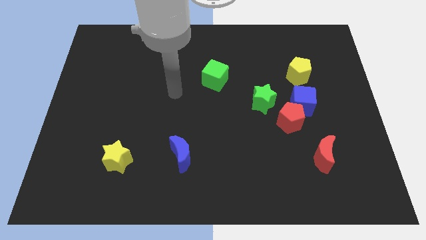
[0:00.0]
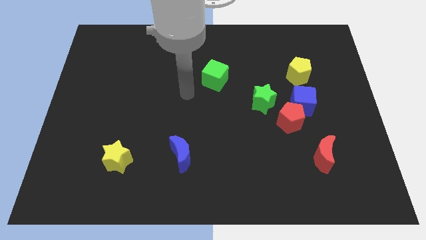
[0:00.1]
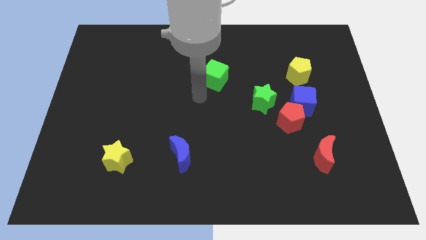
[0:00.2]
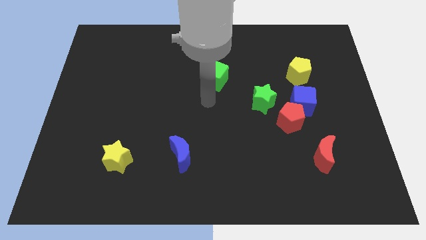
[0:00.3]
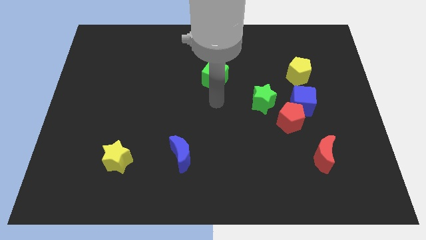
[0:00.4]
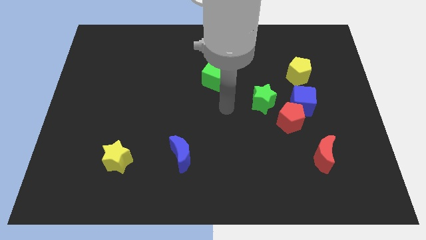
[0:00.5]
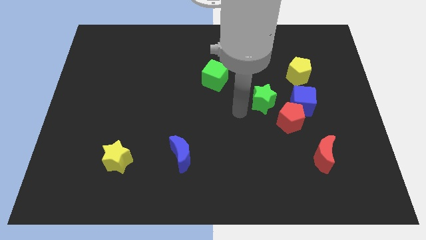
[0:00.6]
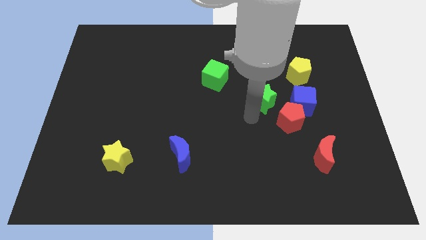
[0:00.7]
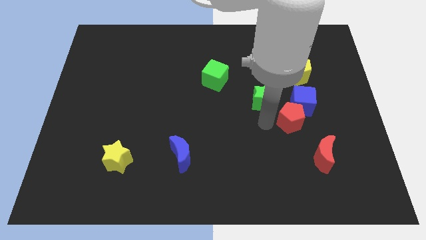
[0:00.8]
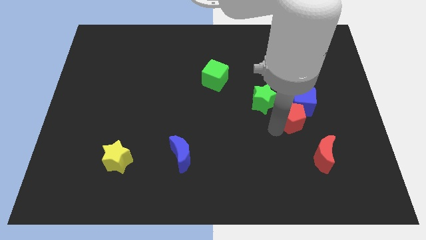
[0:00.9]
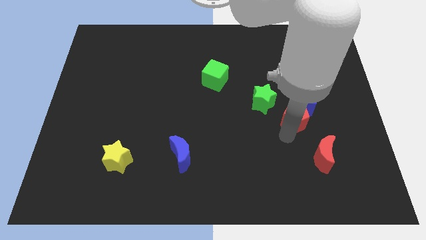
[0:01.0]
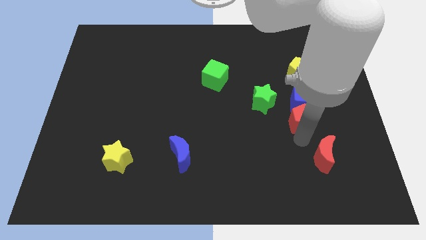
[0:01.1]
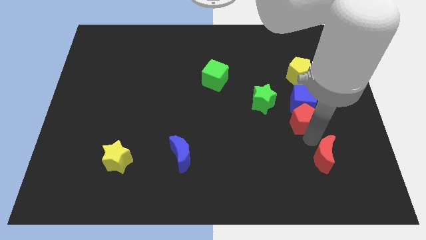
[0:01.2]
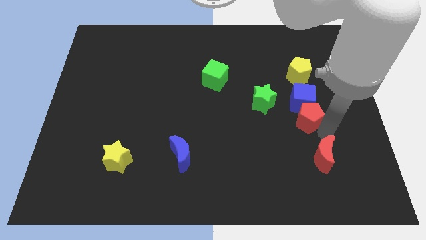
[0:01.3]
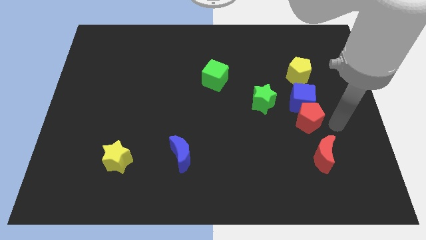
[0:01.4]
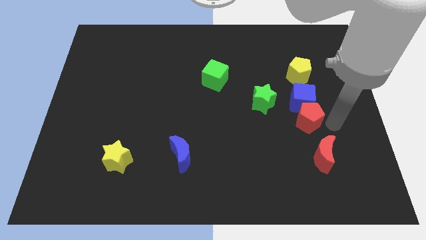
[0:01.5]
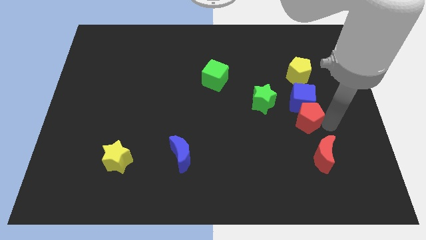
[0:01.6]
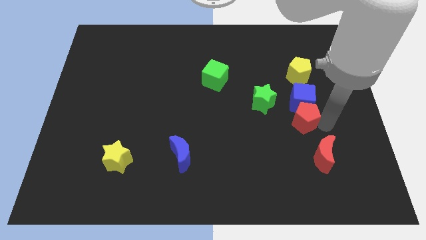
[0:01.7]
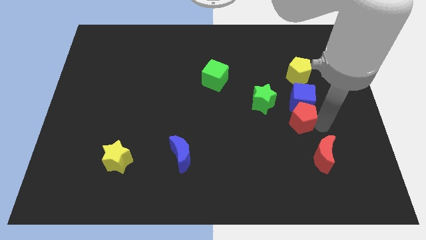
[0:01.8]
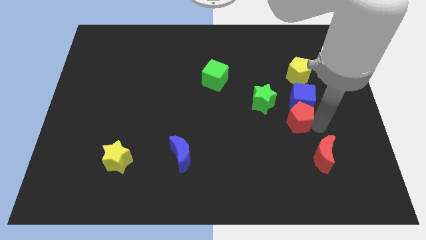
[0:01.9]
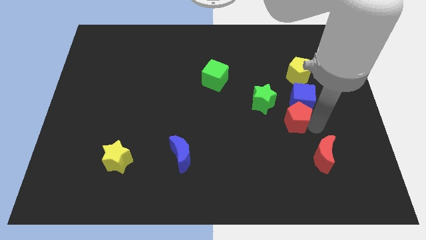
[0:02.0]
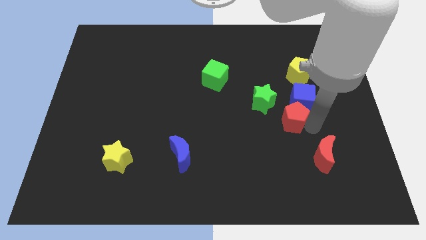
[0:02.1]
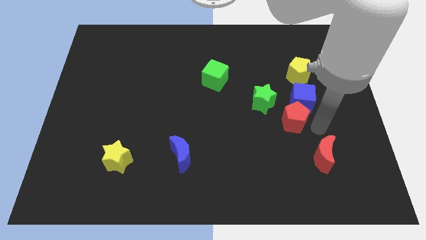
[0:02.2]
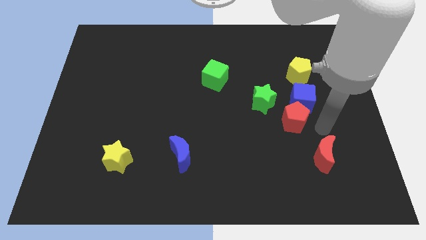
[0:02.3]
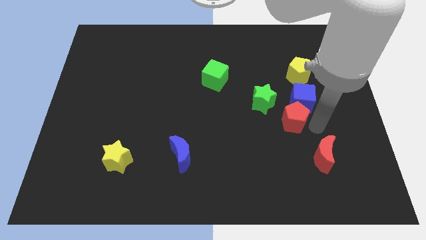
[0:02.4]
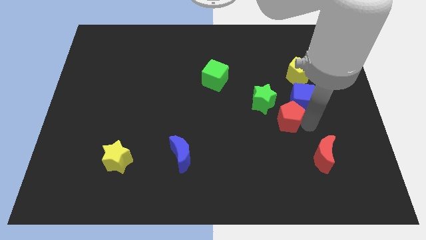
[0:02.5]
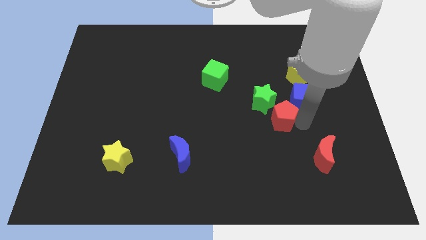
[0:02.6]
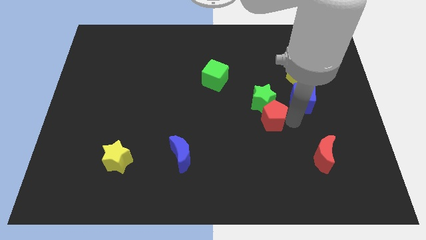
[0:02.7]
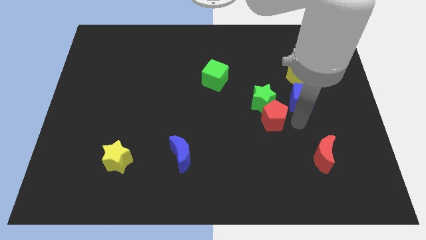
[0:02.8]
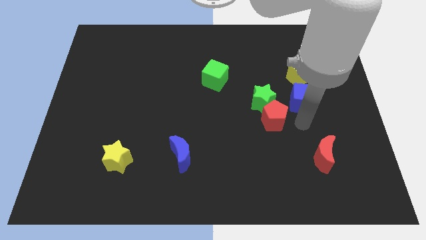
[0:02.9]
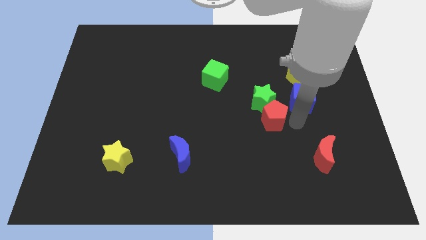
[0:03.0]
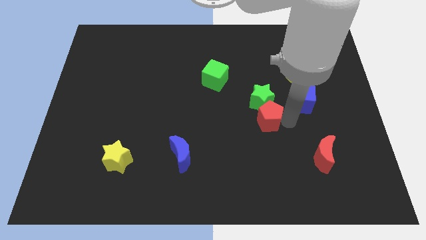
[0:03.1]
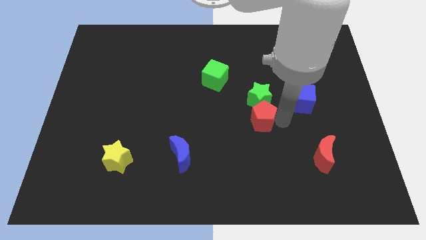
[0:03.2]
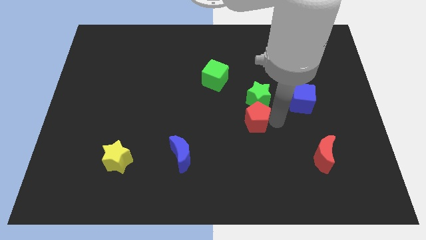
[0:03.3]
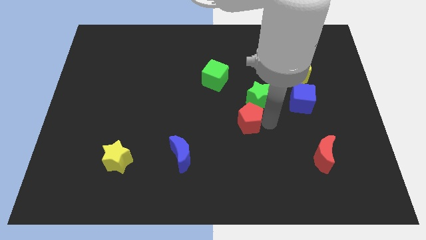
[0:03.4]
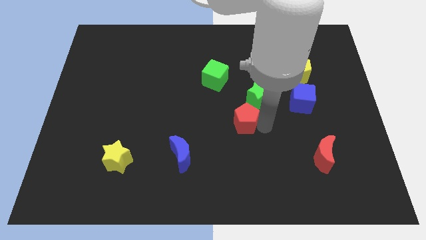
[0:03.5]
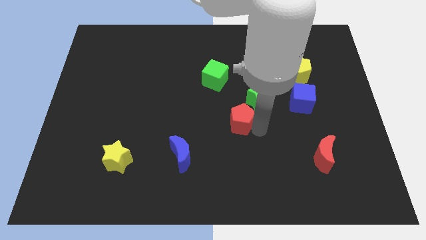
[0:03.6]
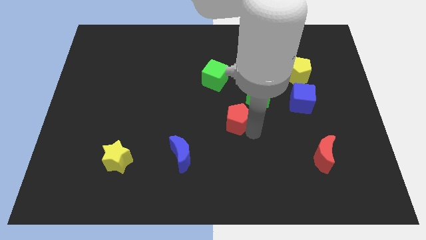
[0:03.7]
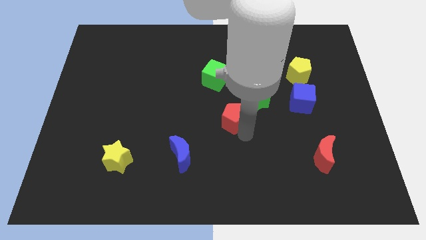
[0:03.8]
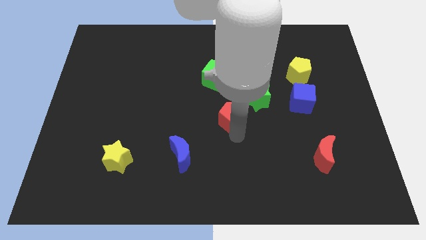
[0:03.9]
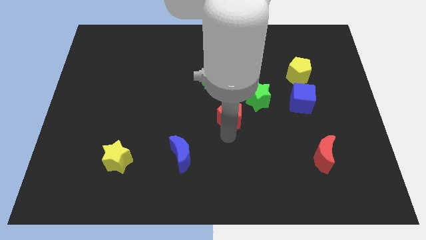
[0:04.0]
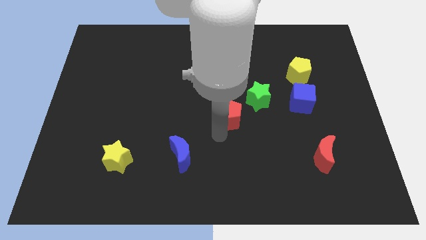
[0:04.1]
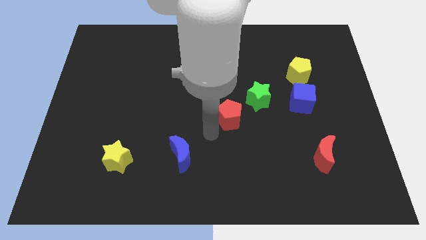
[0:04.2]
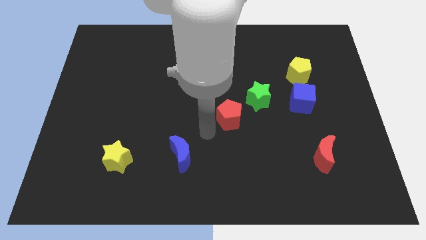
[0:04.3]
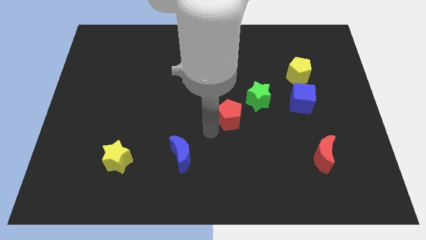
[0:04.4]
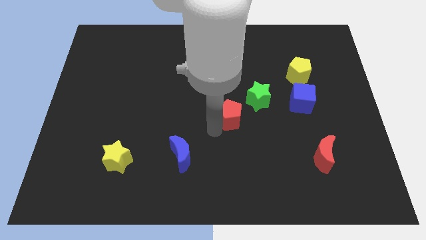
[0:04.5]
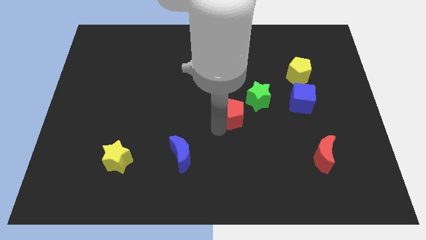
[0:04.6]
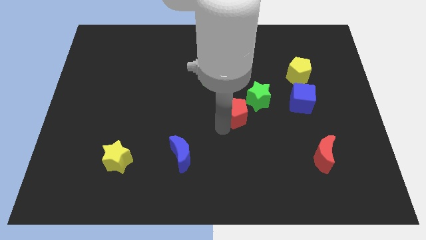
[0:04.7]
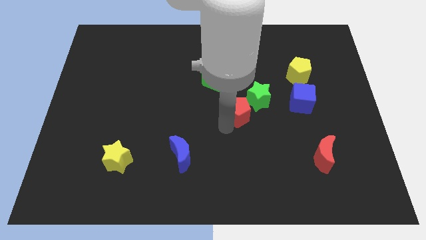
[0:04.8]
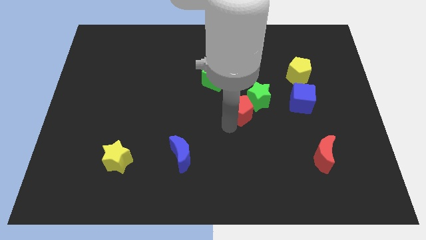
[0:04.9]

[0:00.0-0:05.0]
put the red pentagon to the left side of the blue cube

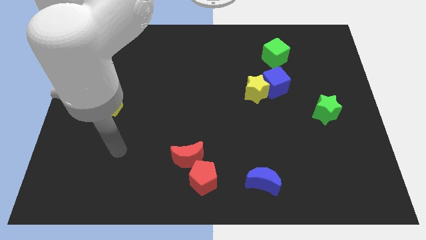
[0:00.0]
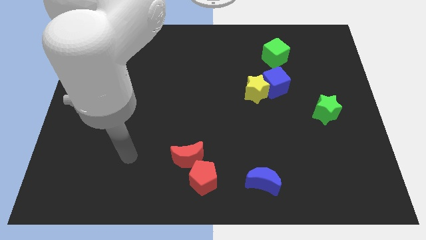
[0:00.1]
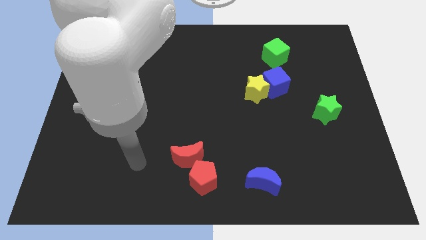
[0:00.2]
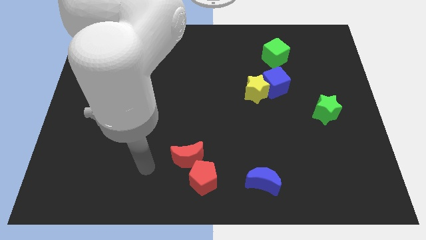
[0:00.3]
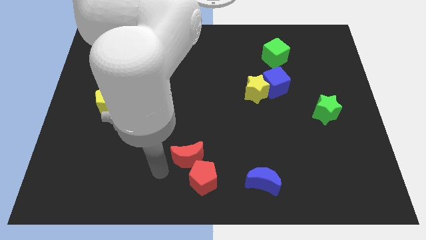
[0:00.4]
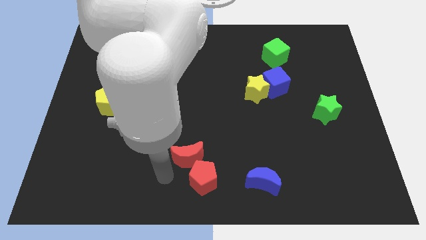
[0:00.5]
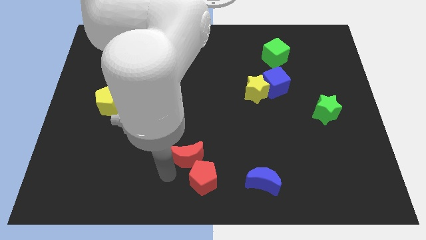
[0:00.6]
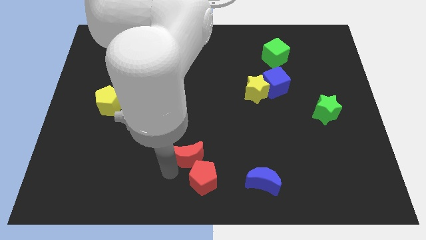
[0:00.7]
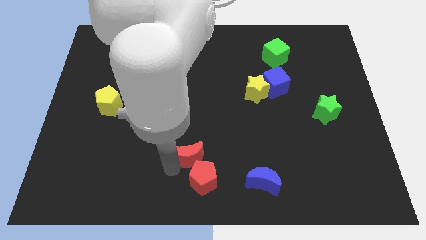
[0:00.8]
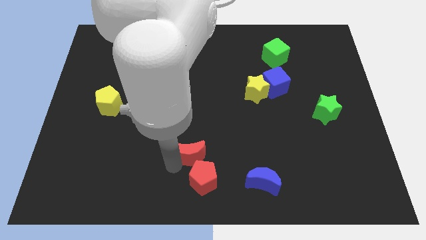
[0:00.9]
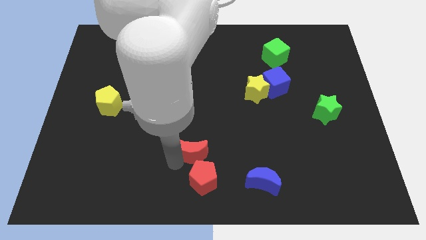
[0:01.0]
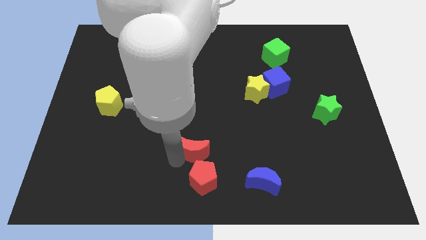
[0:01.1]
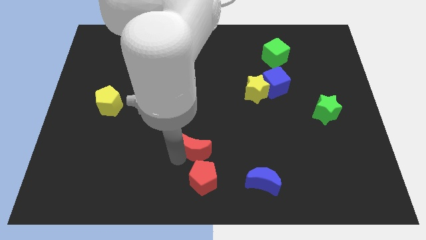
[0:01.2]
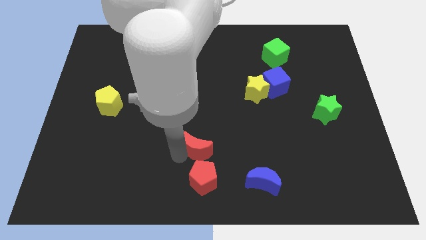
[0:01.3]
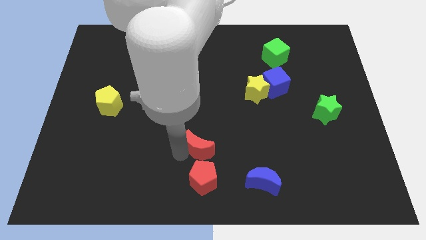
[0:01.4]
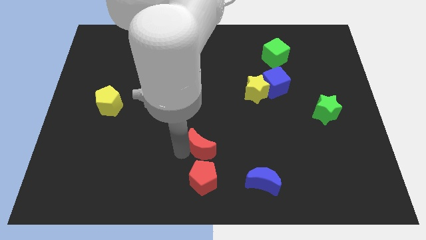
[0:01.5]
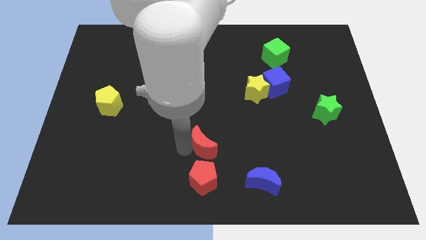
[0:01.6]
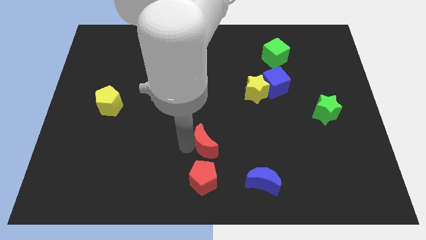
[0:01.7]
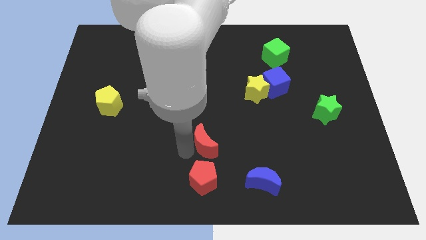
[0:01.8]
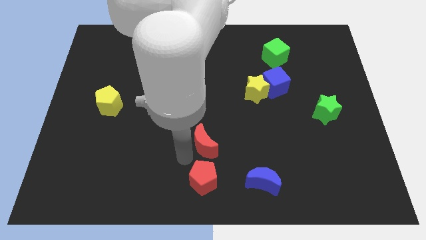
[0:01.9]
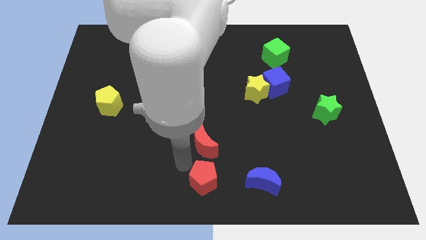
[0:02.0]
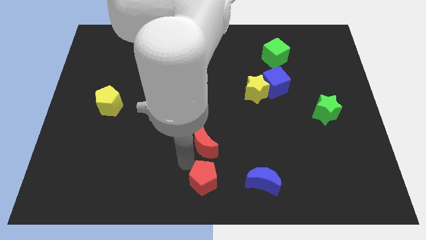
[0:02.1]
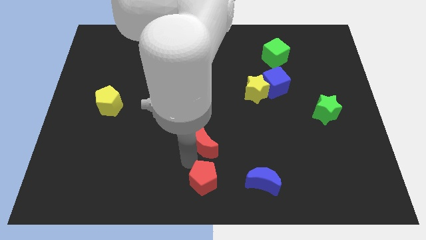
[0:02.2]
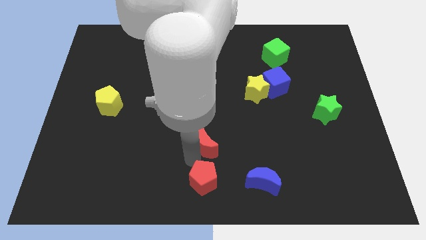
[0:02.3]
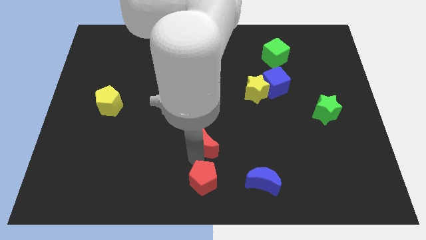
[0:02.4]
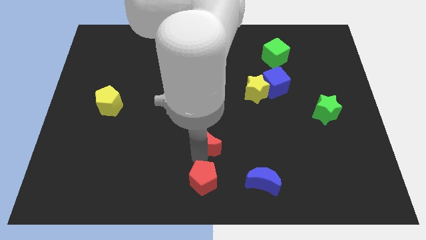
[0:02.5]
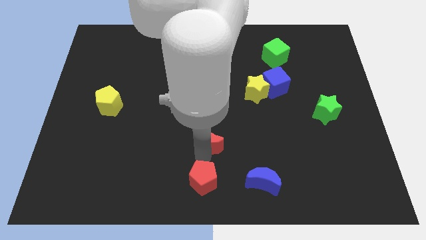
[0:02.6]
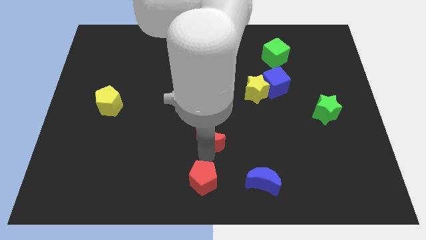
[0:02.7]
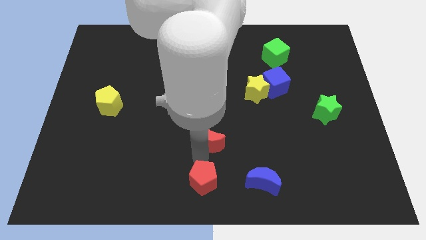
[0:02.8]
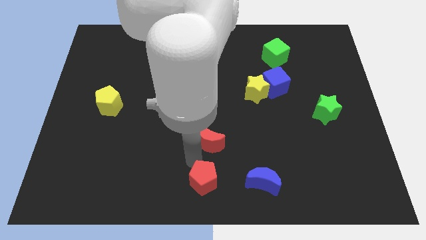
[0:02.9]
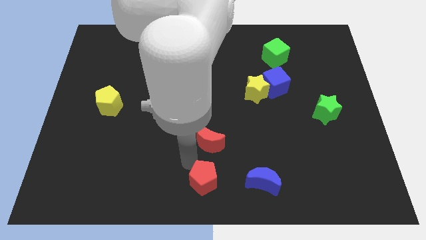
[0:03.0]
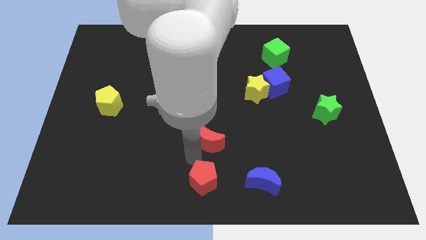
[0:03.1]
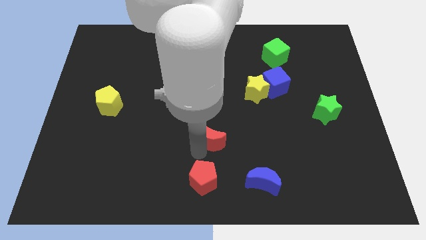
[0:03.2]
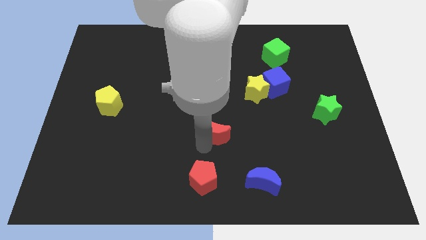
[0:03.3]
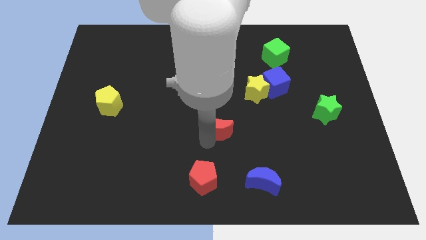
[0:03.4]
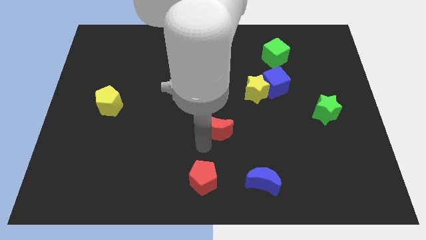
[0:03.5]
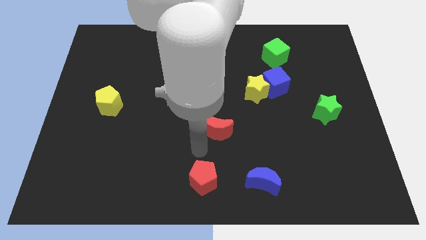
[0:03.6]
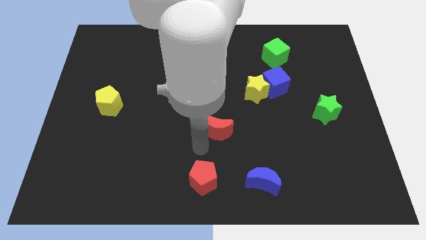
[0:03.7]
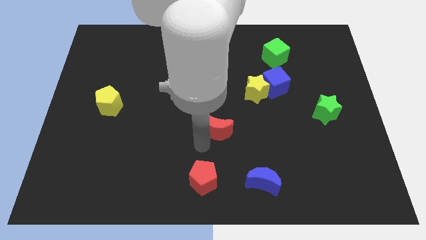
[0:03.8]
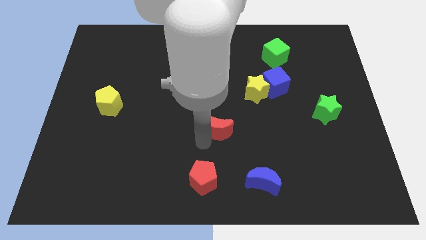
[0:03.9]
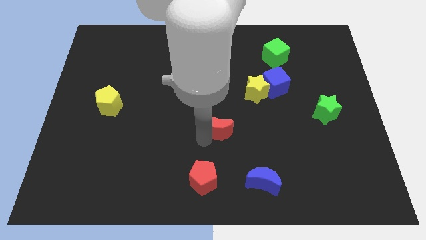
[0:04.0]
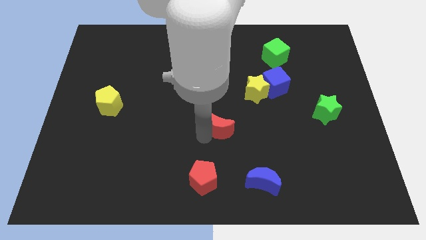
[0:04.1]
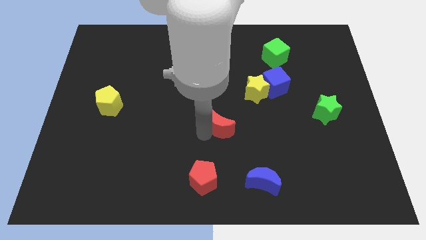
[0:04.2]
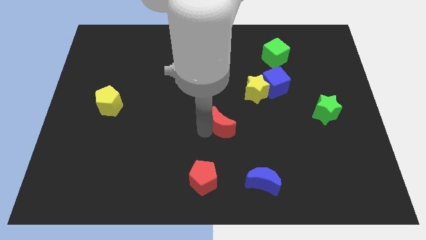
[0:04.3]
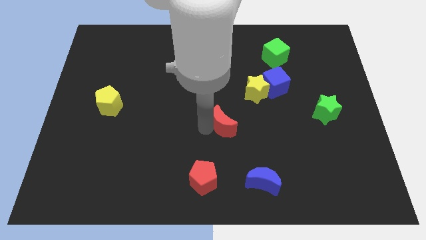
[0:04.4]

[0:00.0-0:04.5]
slide the red moon to the bottom left side of the yellow star
